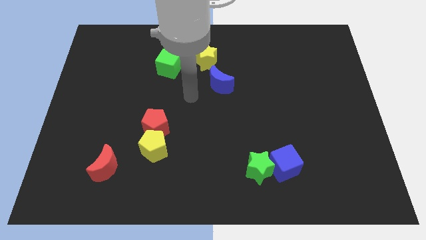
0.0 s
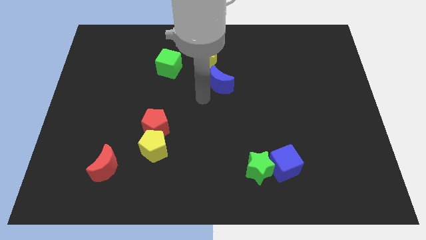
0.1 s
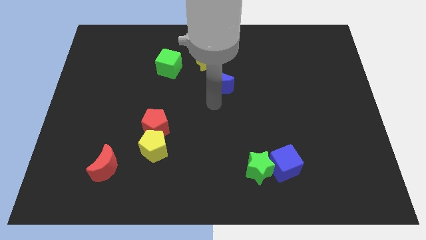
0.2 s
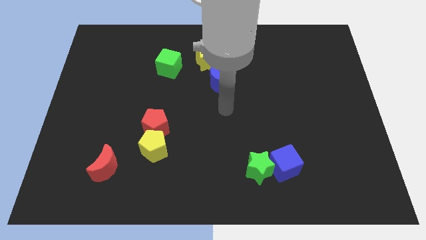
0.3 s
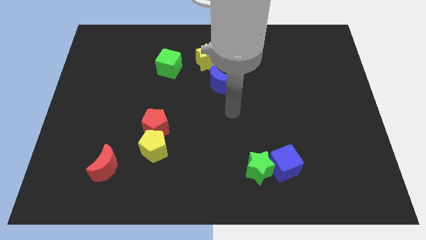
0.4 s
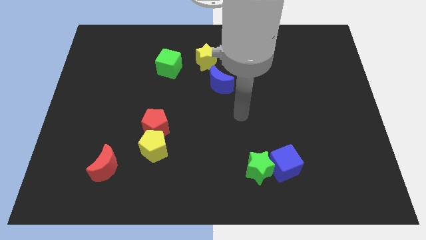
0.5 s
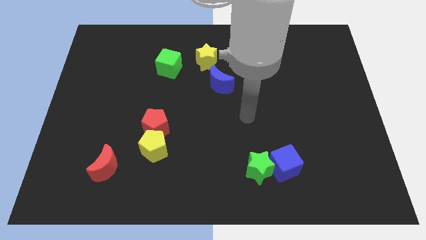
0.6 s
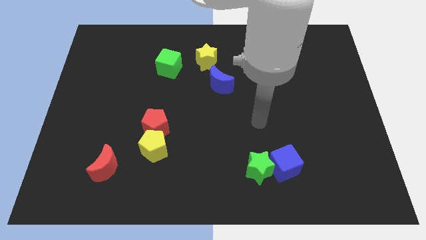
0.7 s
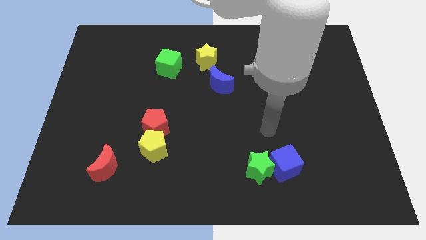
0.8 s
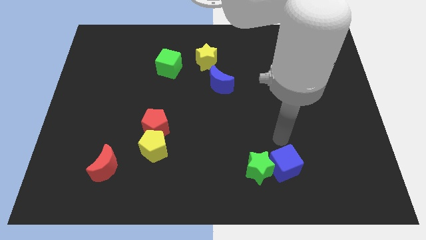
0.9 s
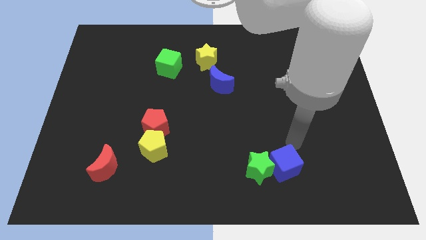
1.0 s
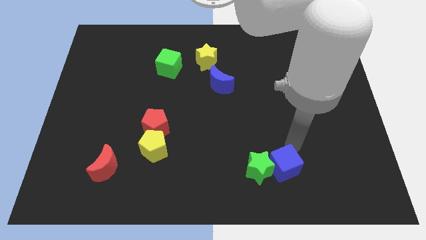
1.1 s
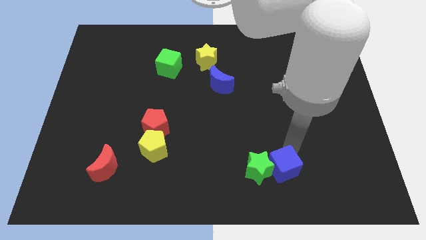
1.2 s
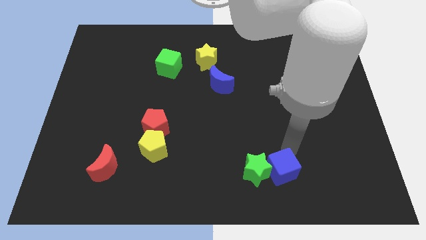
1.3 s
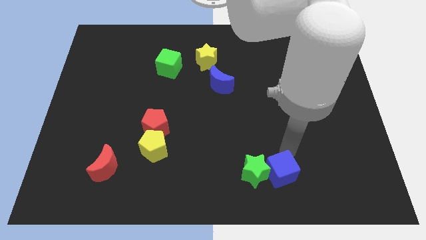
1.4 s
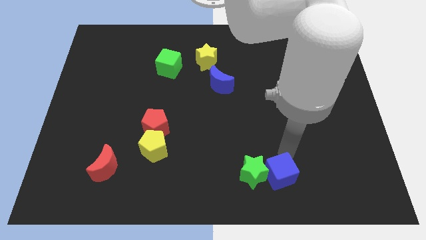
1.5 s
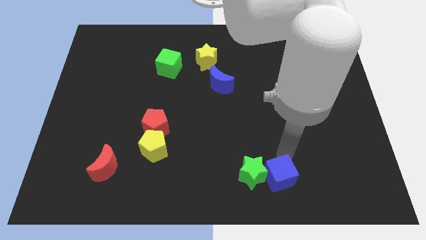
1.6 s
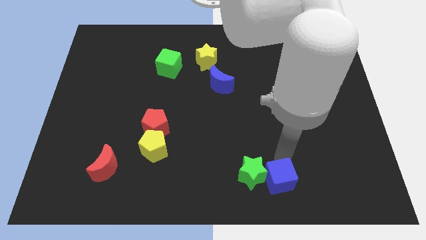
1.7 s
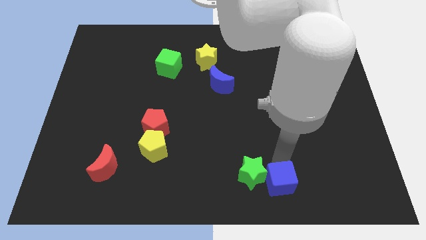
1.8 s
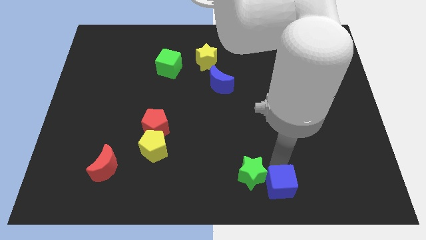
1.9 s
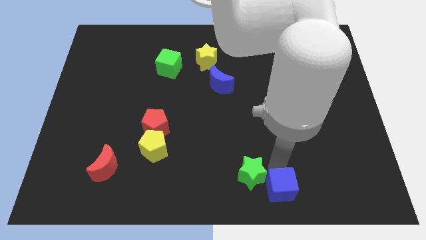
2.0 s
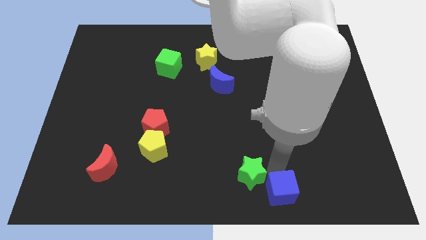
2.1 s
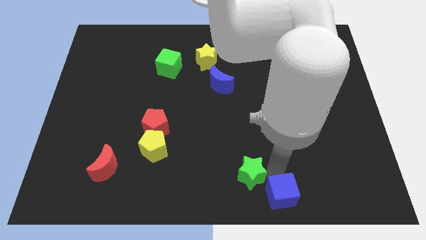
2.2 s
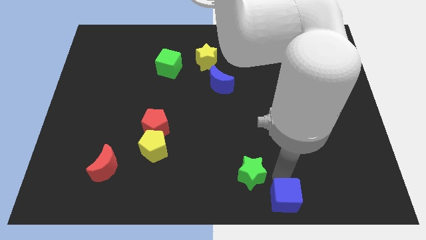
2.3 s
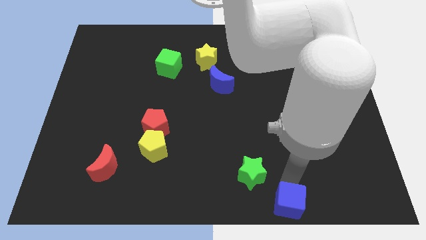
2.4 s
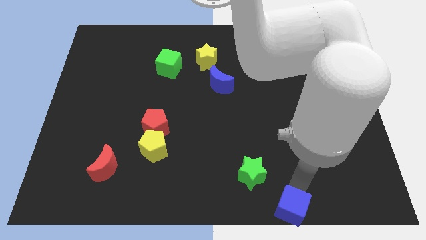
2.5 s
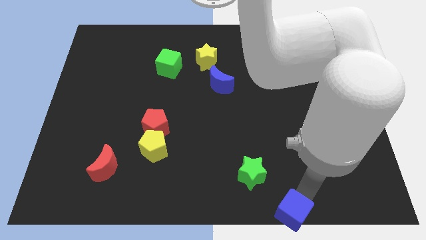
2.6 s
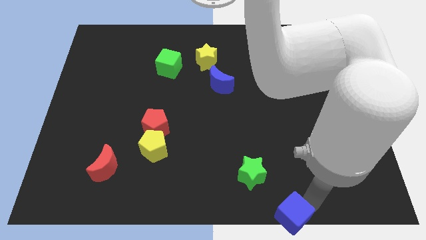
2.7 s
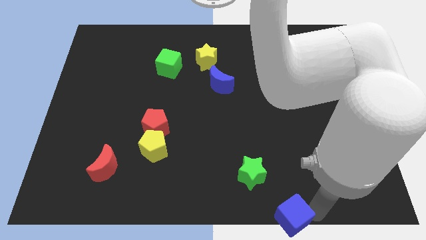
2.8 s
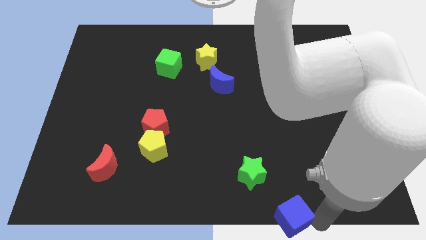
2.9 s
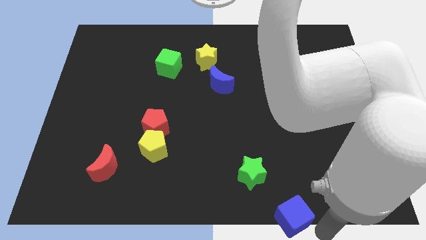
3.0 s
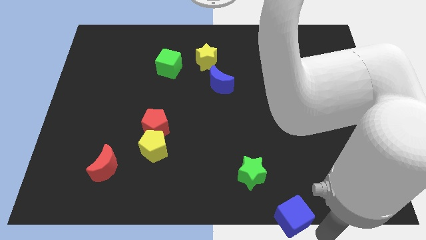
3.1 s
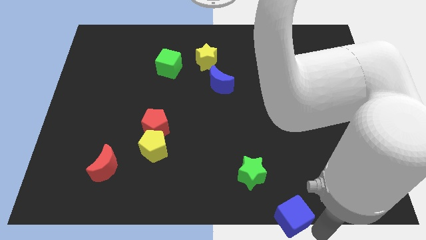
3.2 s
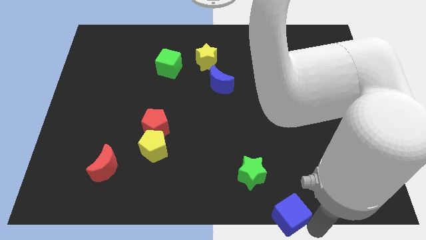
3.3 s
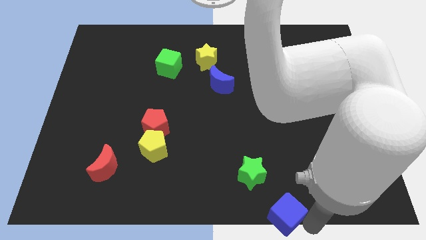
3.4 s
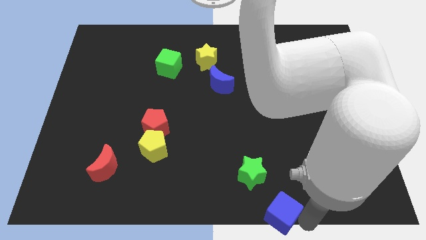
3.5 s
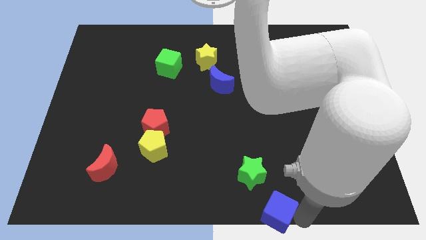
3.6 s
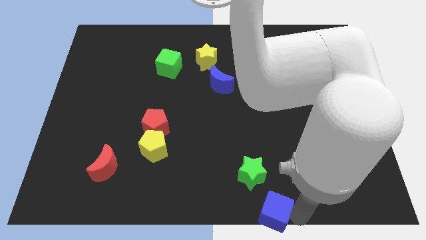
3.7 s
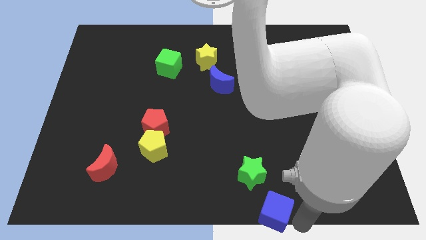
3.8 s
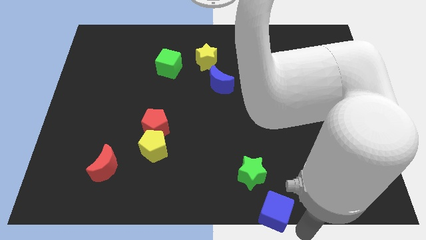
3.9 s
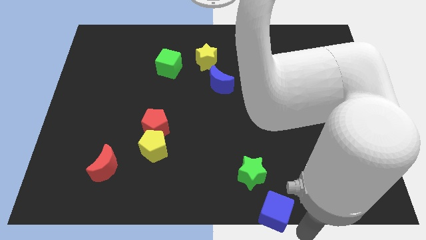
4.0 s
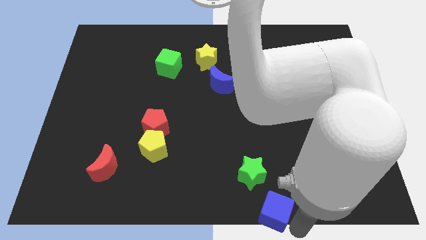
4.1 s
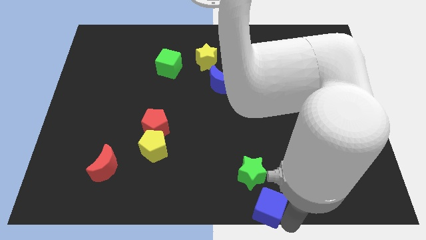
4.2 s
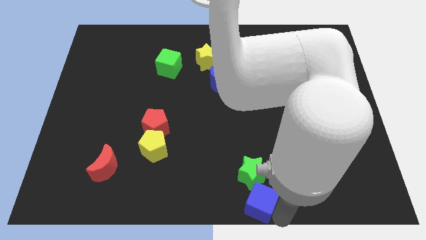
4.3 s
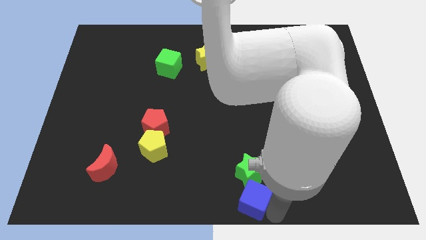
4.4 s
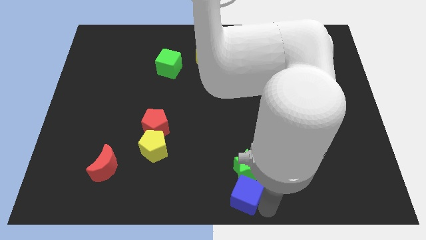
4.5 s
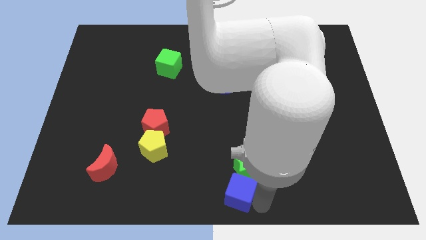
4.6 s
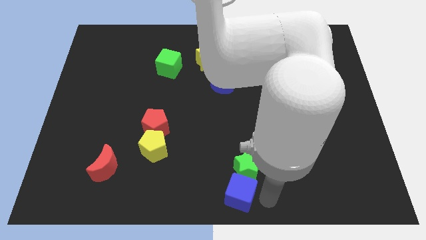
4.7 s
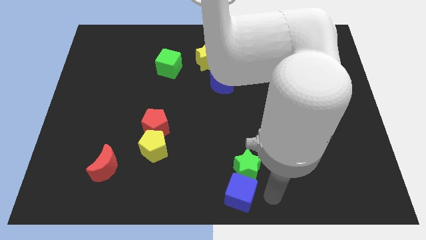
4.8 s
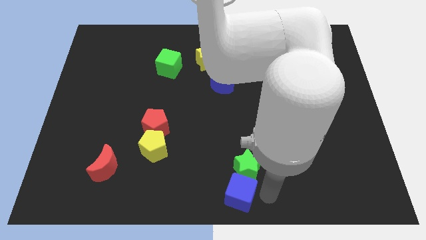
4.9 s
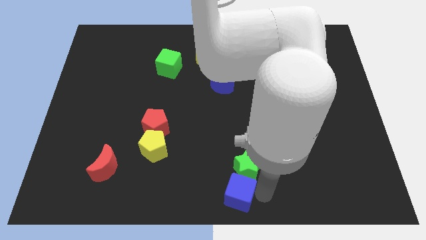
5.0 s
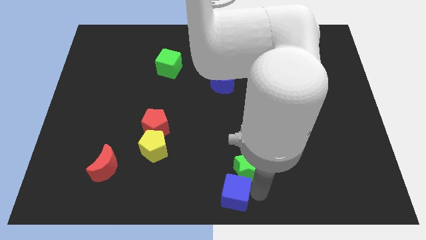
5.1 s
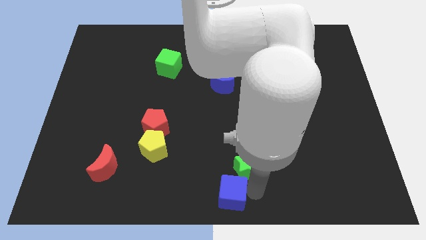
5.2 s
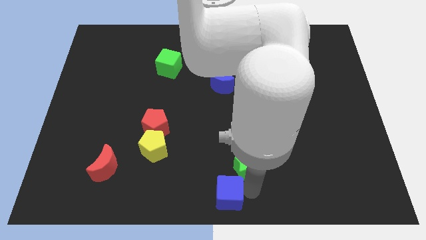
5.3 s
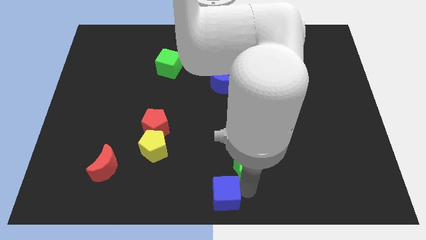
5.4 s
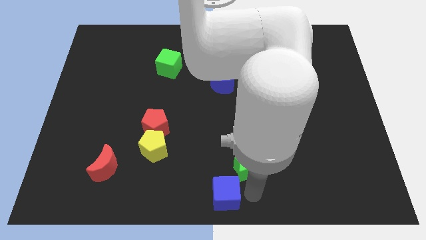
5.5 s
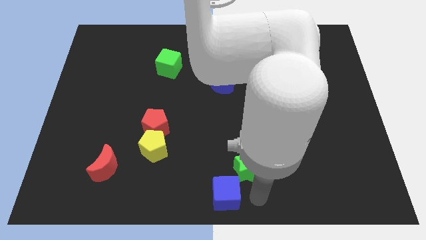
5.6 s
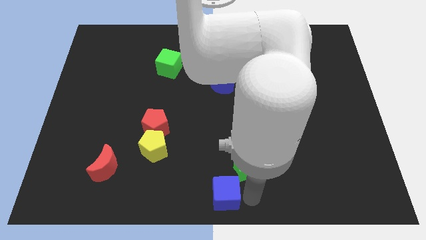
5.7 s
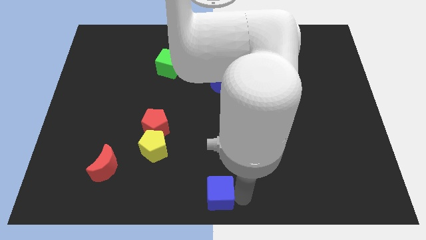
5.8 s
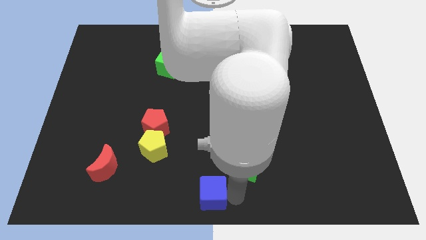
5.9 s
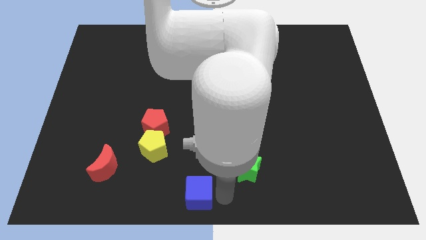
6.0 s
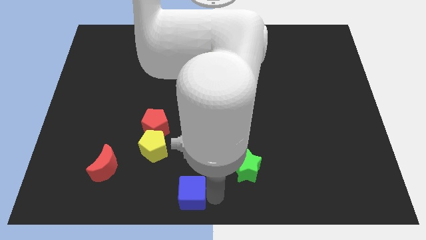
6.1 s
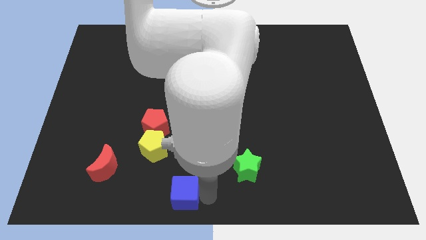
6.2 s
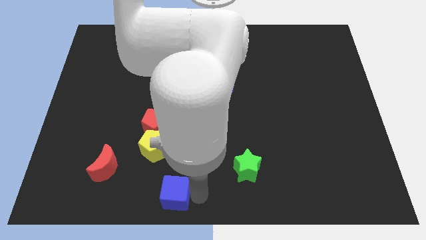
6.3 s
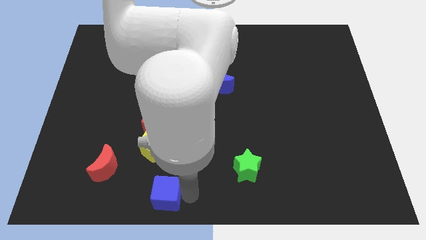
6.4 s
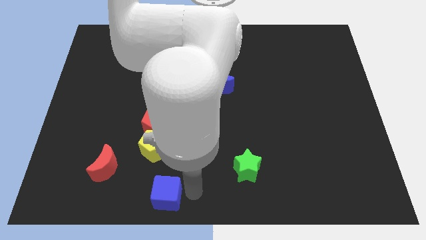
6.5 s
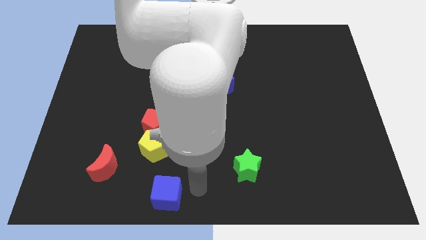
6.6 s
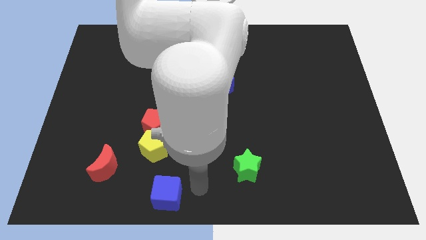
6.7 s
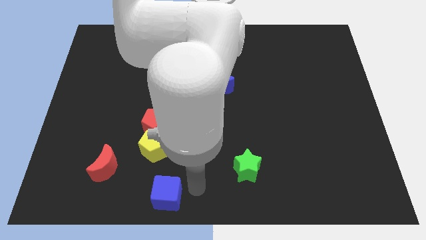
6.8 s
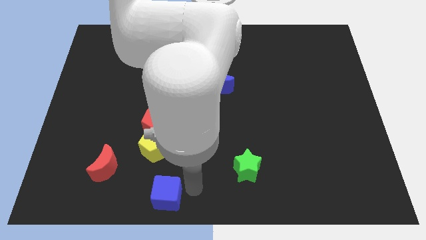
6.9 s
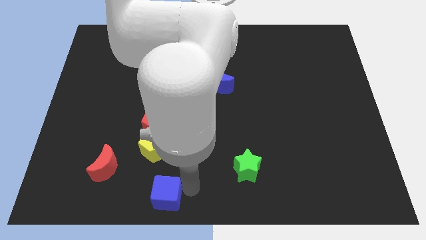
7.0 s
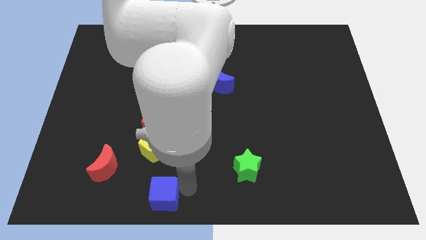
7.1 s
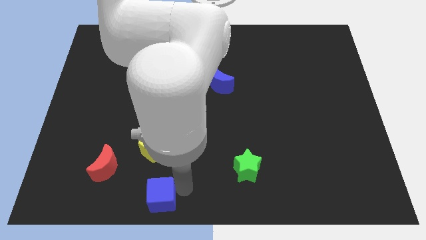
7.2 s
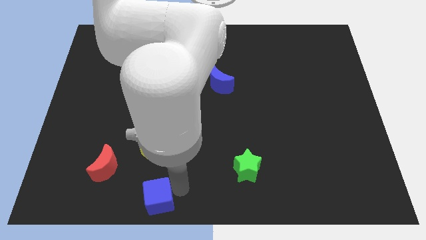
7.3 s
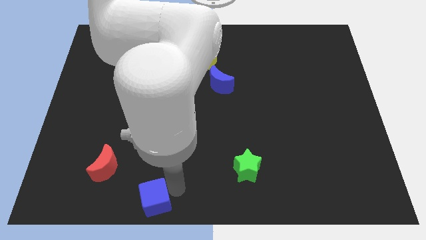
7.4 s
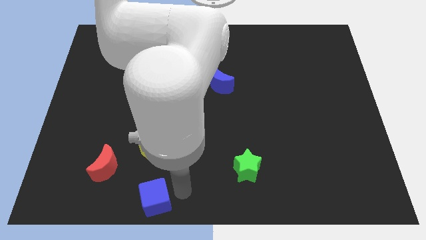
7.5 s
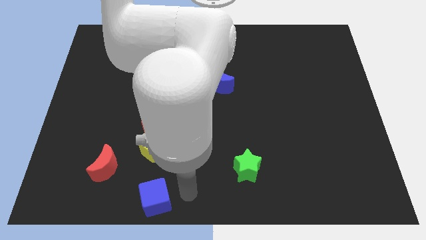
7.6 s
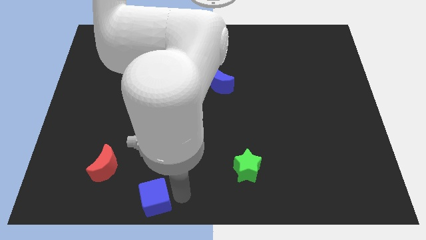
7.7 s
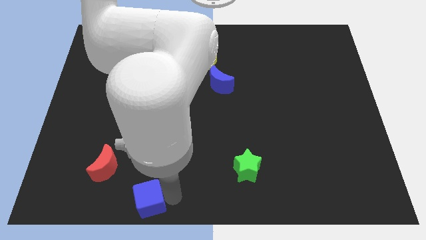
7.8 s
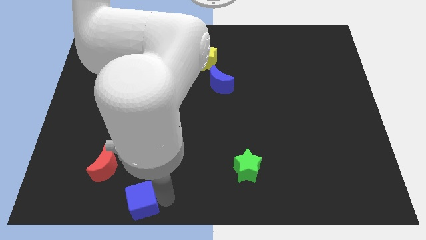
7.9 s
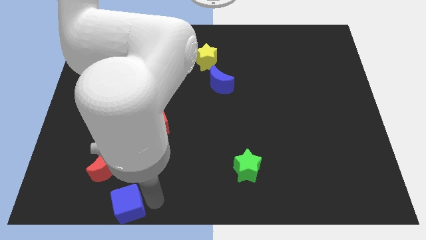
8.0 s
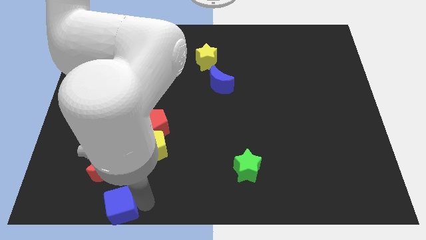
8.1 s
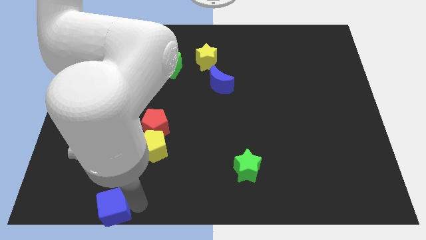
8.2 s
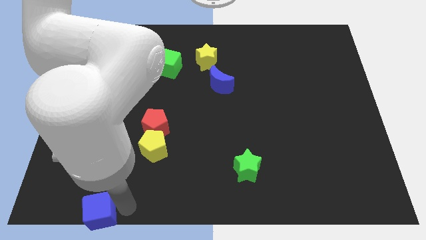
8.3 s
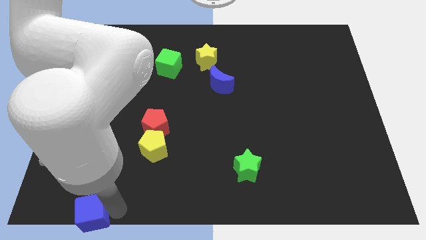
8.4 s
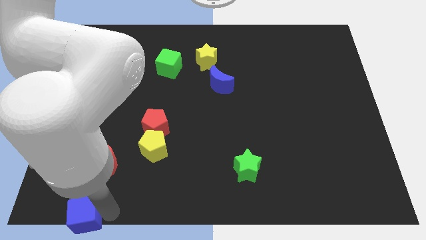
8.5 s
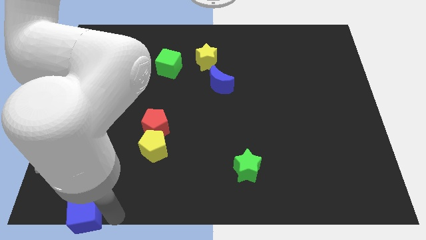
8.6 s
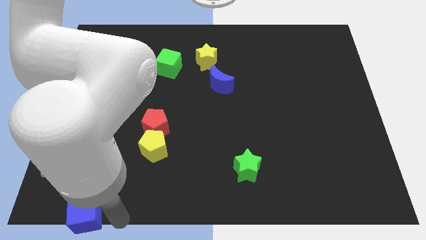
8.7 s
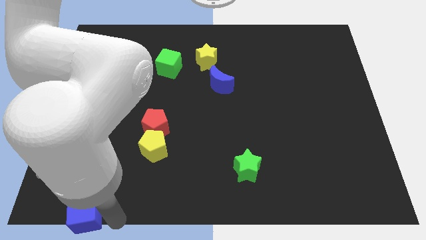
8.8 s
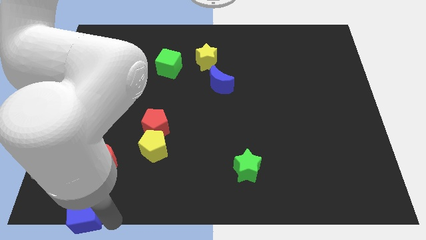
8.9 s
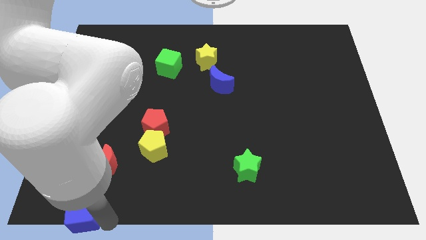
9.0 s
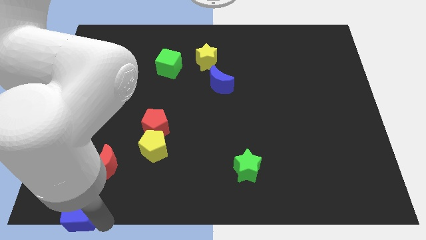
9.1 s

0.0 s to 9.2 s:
push the blue cube to the bottom left
